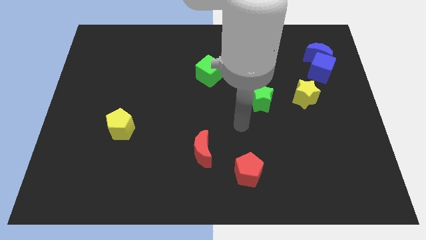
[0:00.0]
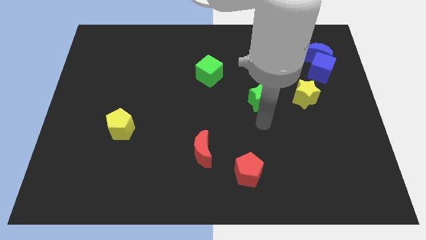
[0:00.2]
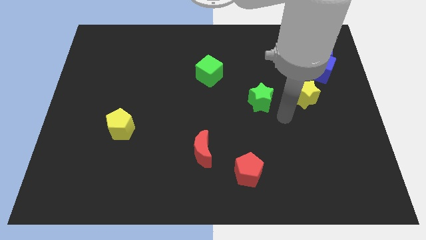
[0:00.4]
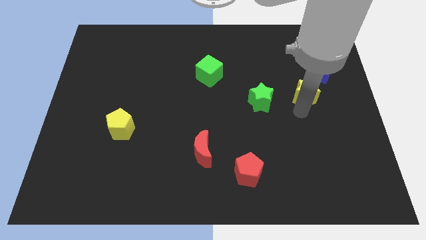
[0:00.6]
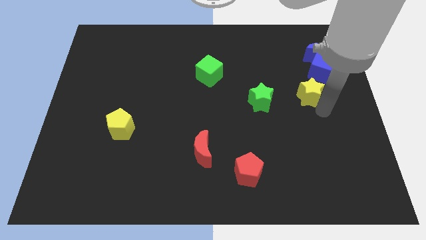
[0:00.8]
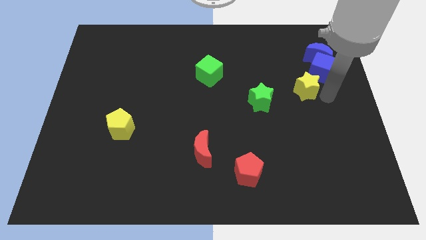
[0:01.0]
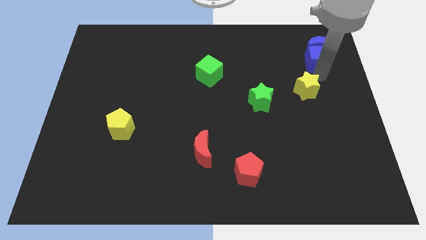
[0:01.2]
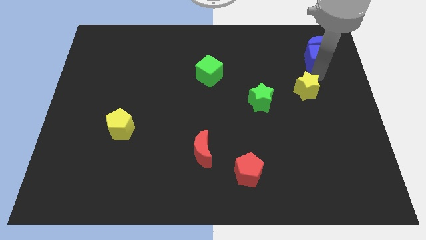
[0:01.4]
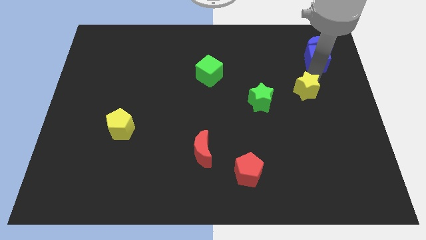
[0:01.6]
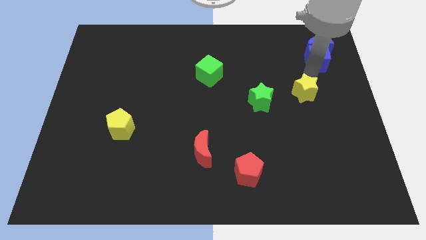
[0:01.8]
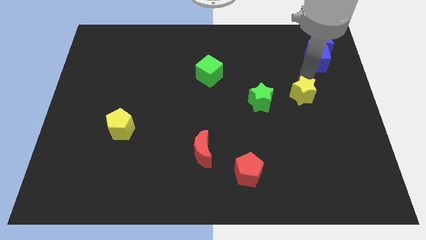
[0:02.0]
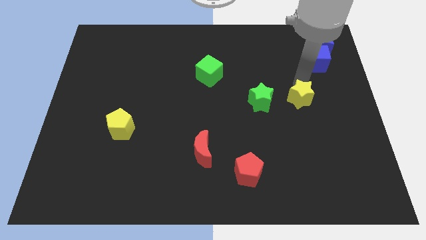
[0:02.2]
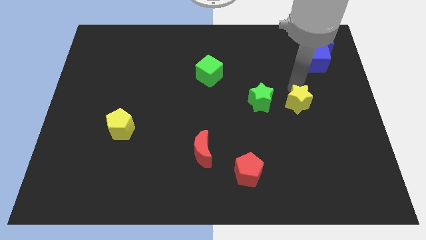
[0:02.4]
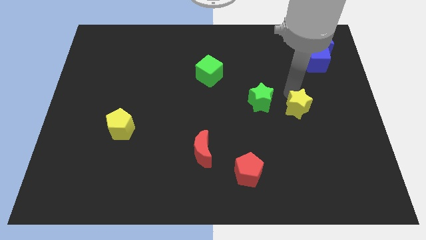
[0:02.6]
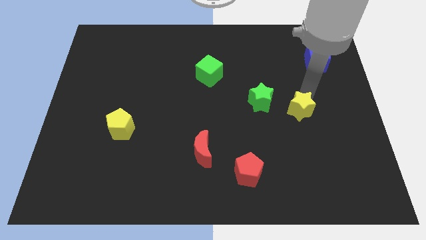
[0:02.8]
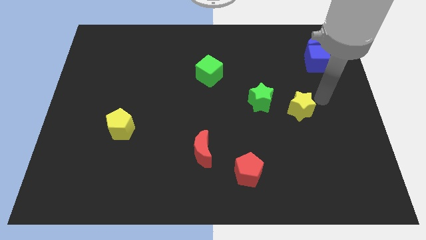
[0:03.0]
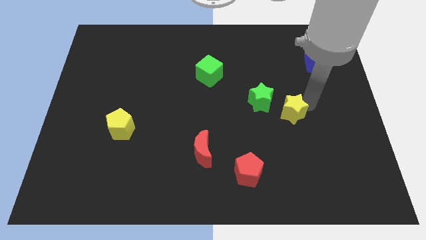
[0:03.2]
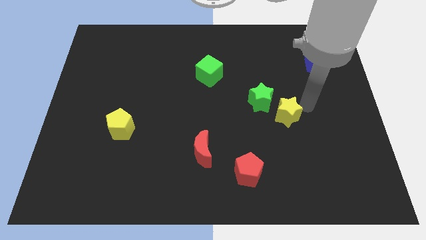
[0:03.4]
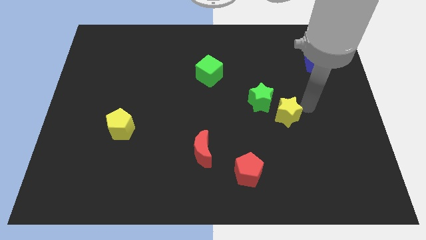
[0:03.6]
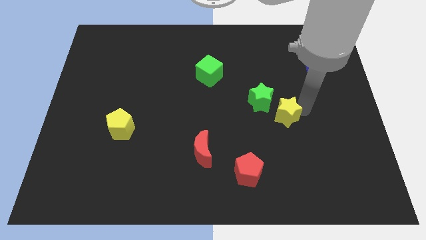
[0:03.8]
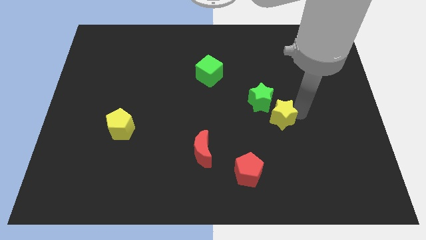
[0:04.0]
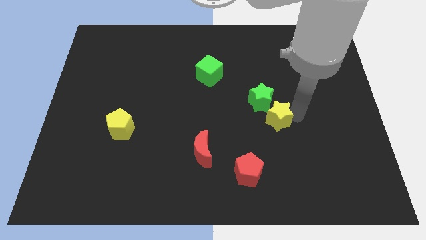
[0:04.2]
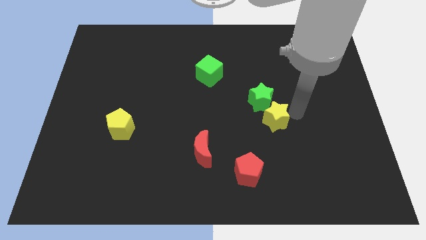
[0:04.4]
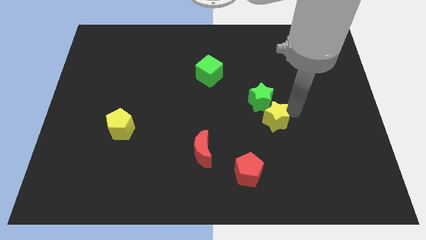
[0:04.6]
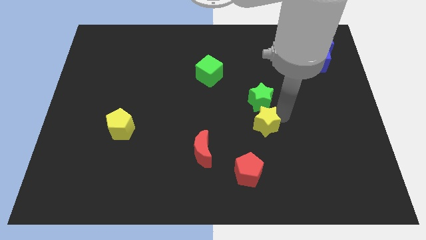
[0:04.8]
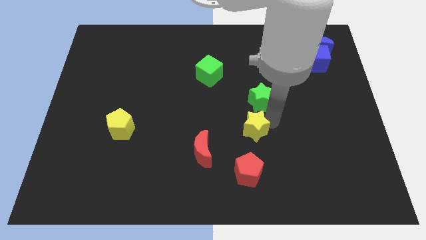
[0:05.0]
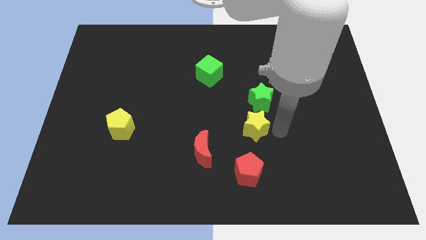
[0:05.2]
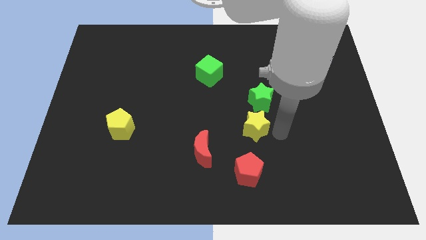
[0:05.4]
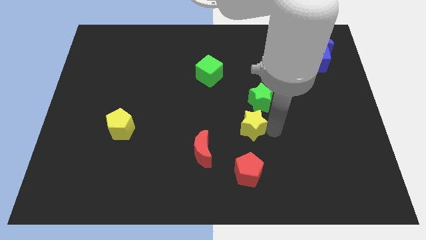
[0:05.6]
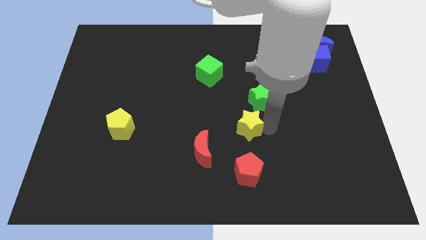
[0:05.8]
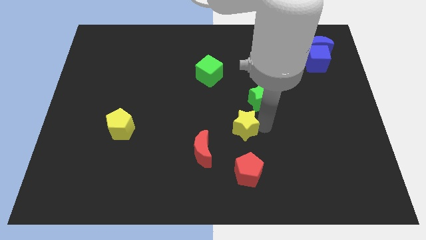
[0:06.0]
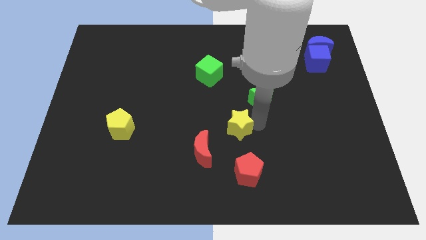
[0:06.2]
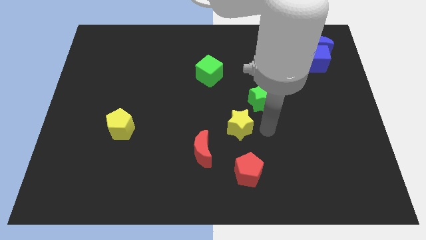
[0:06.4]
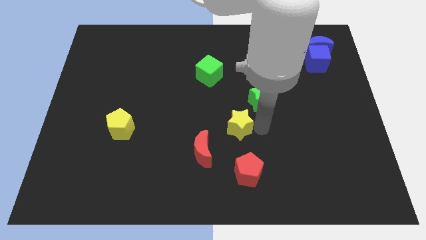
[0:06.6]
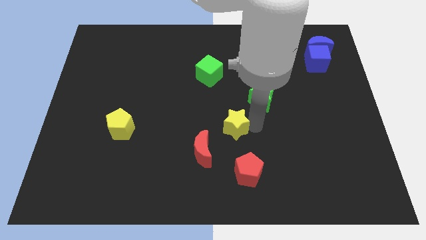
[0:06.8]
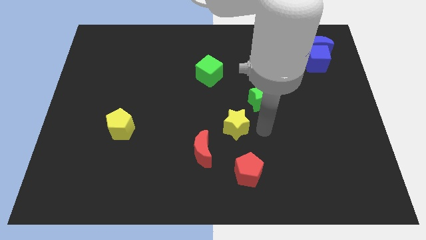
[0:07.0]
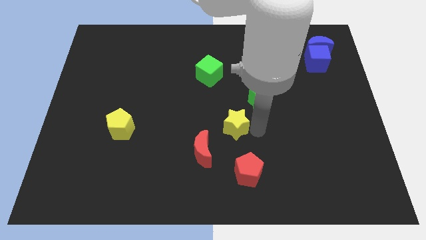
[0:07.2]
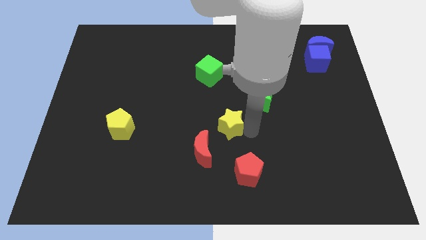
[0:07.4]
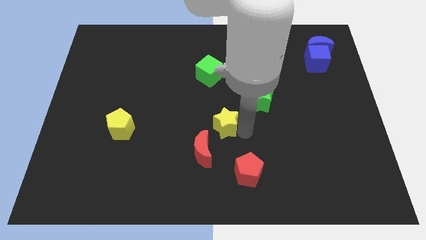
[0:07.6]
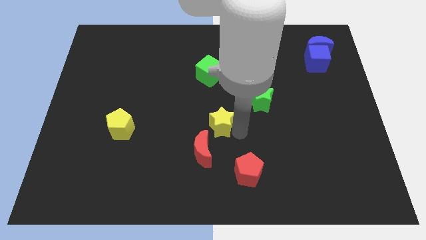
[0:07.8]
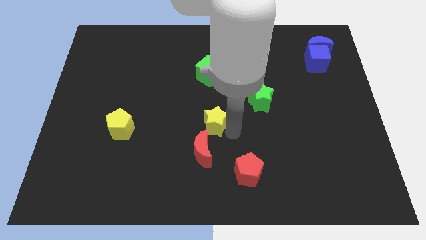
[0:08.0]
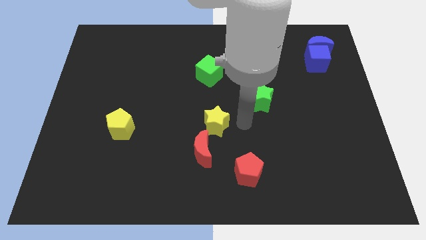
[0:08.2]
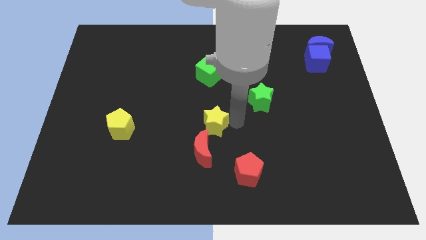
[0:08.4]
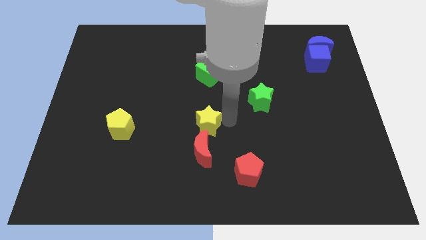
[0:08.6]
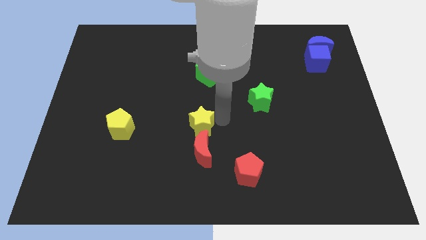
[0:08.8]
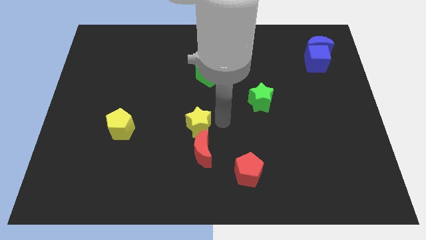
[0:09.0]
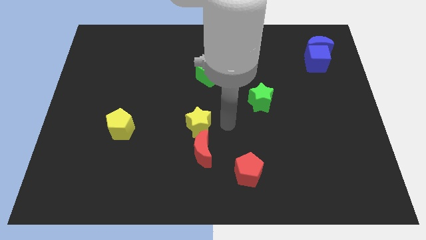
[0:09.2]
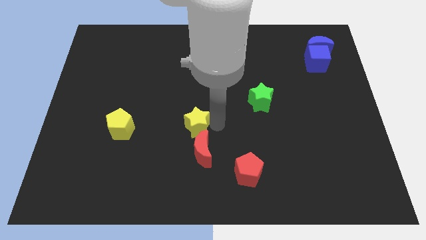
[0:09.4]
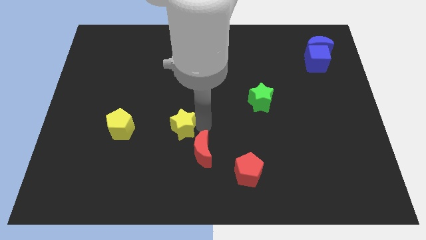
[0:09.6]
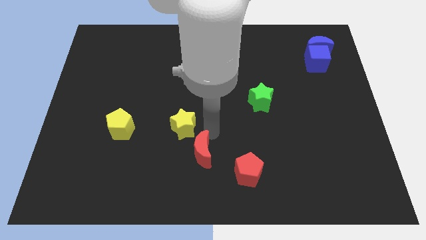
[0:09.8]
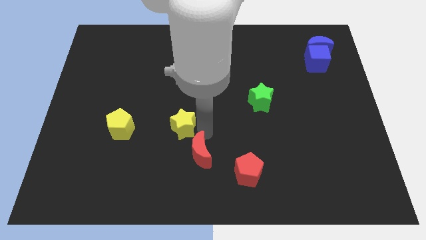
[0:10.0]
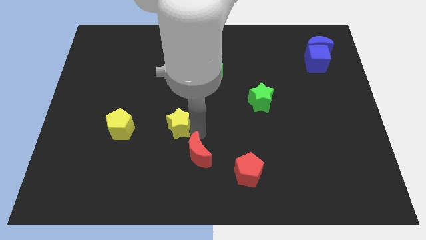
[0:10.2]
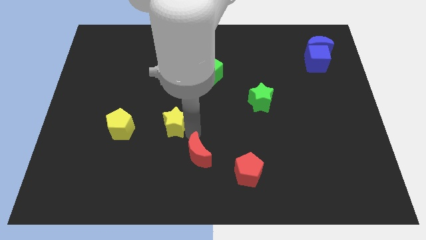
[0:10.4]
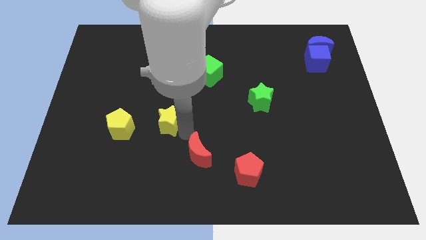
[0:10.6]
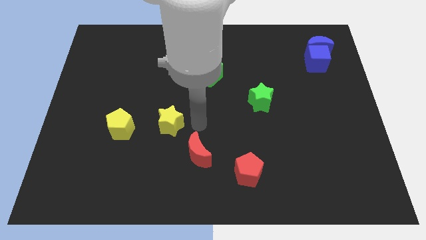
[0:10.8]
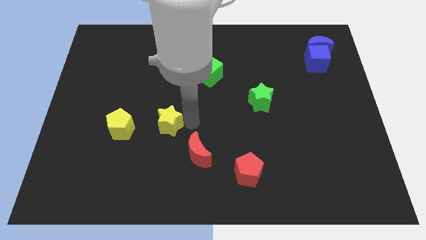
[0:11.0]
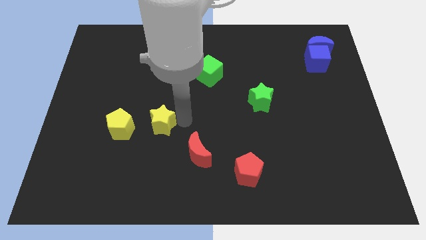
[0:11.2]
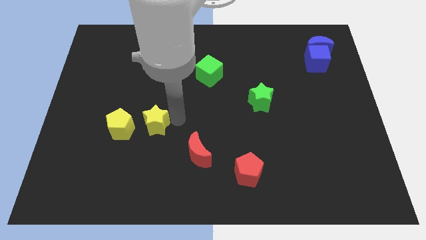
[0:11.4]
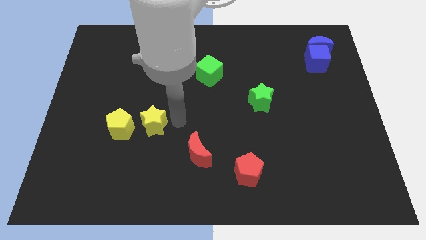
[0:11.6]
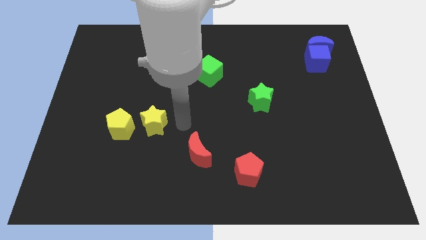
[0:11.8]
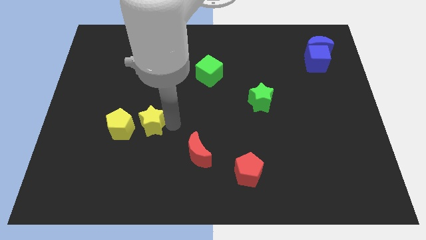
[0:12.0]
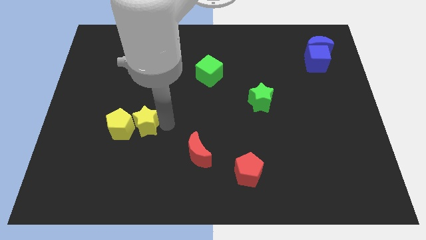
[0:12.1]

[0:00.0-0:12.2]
push the yellow star next to the yellow pentagon

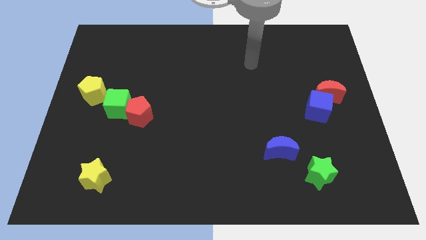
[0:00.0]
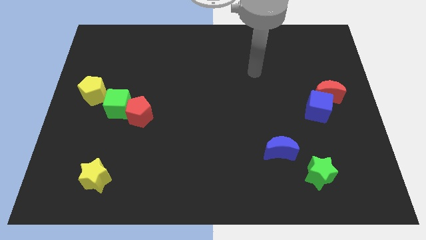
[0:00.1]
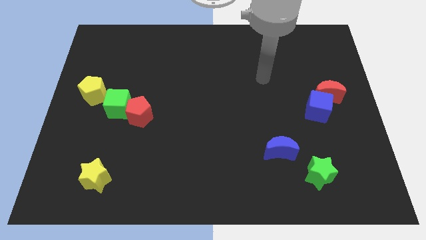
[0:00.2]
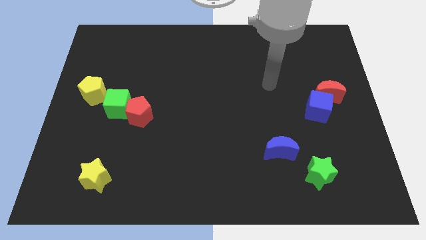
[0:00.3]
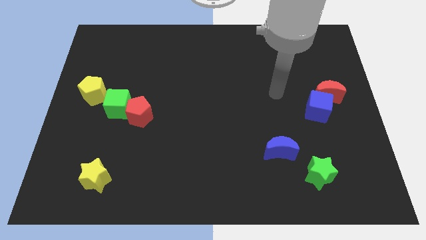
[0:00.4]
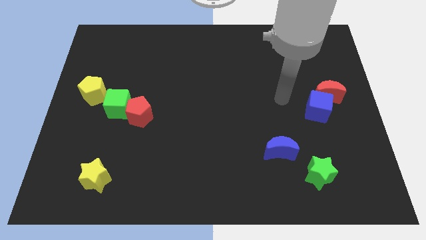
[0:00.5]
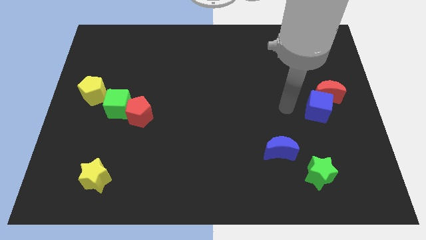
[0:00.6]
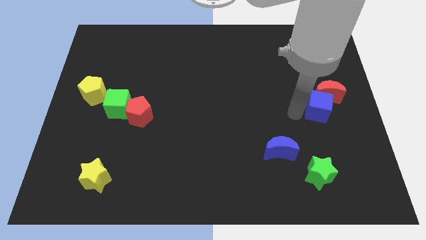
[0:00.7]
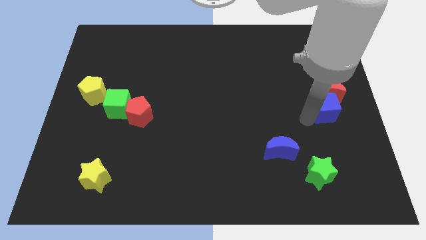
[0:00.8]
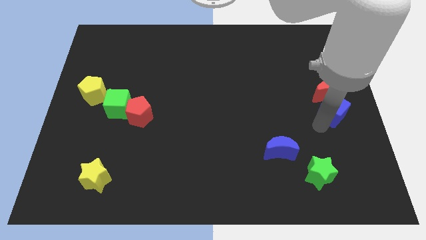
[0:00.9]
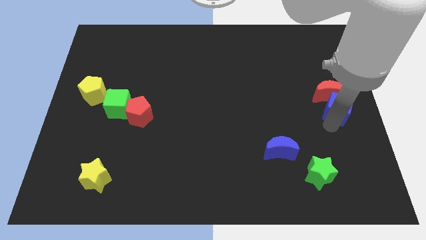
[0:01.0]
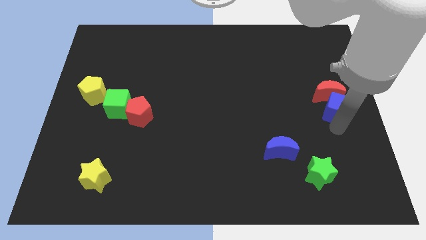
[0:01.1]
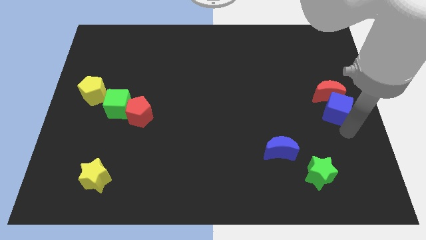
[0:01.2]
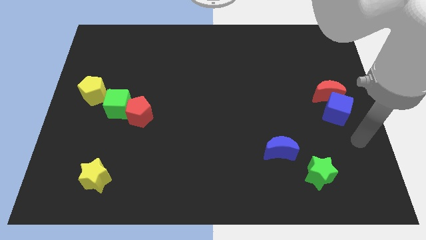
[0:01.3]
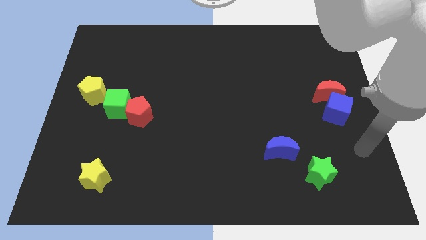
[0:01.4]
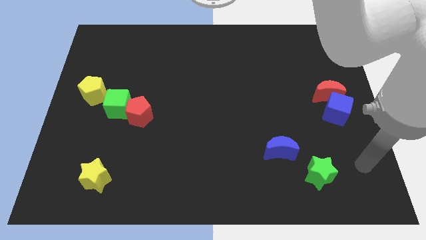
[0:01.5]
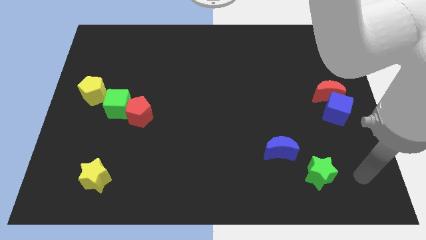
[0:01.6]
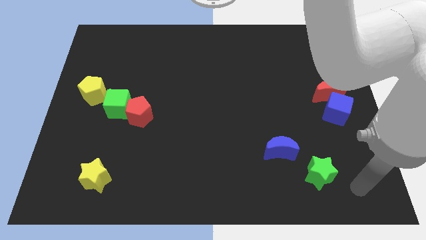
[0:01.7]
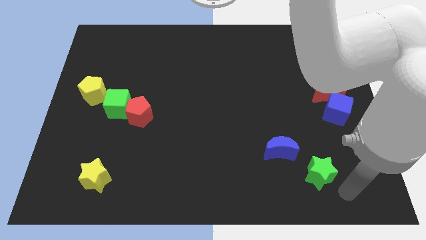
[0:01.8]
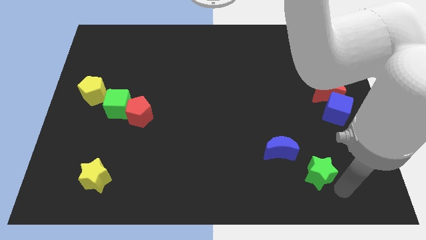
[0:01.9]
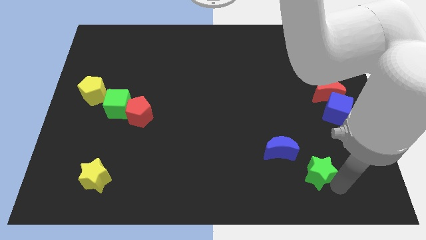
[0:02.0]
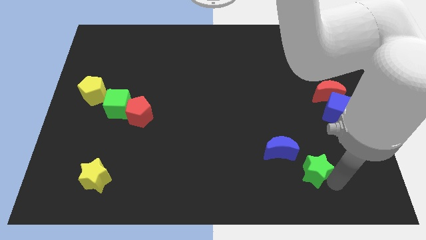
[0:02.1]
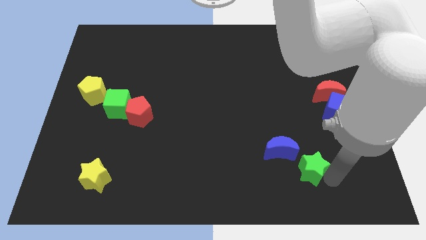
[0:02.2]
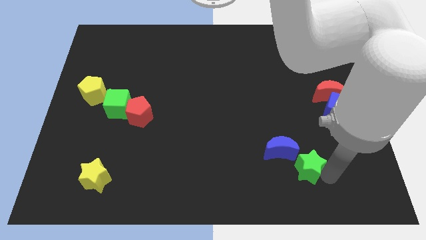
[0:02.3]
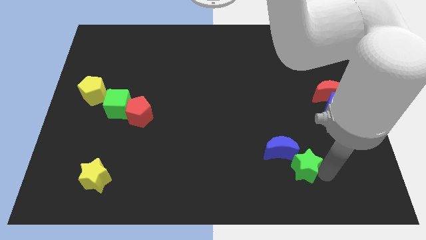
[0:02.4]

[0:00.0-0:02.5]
move the green star to the blue moon
